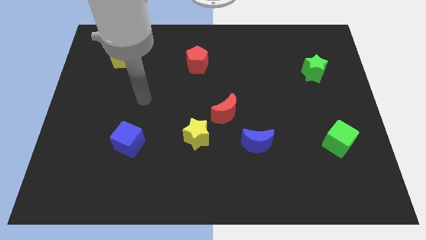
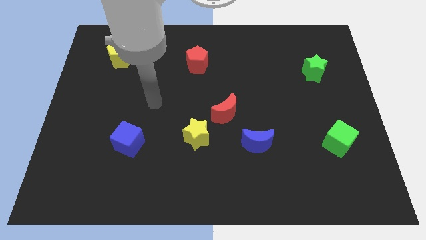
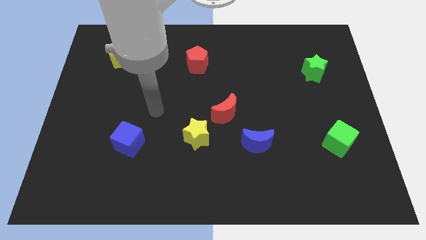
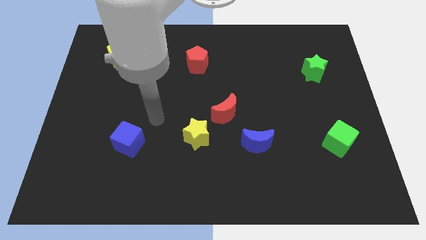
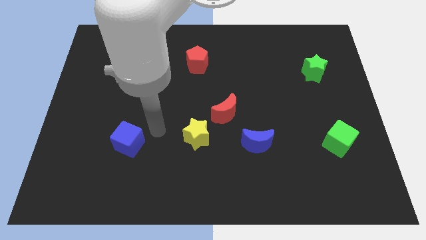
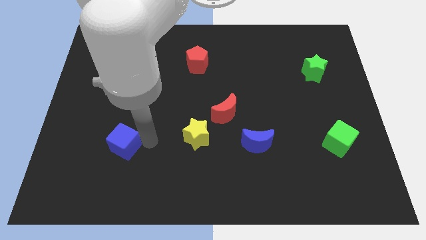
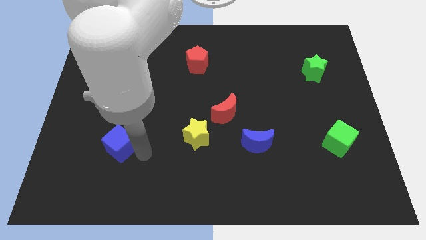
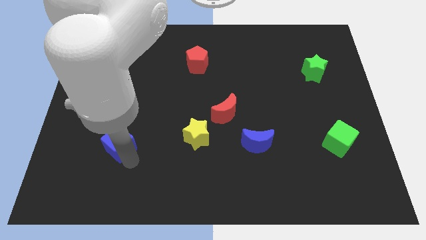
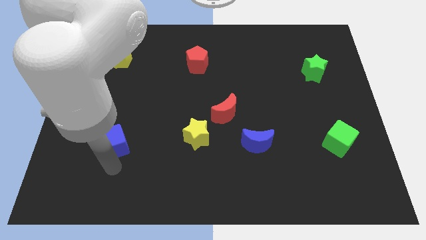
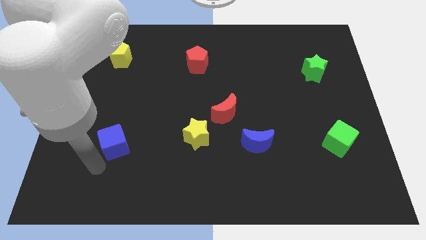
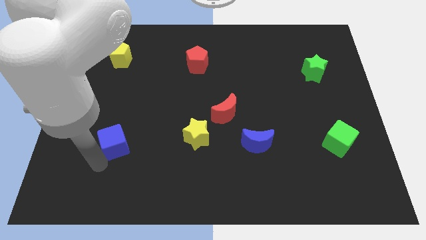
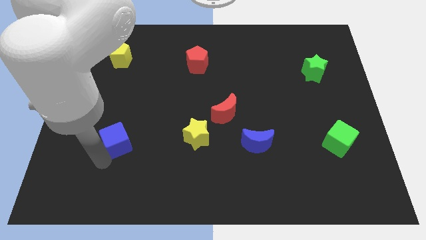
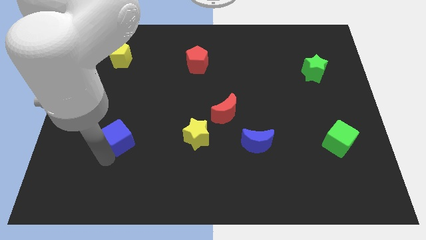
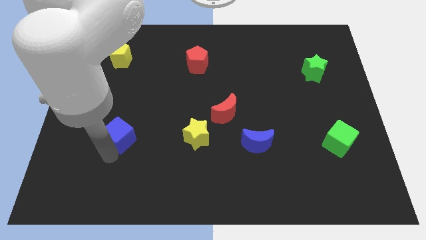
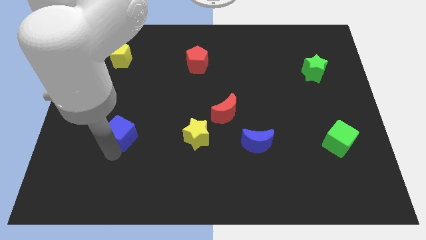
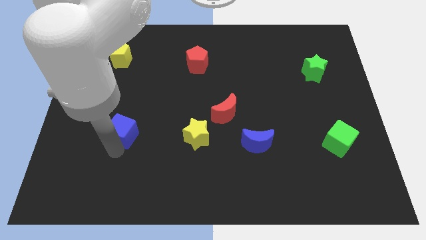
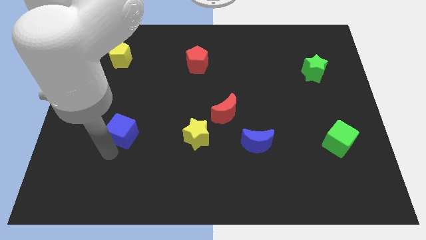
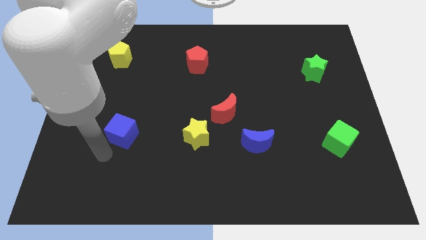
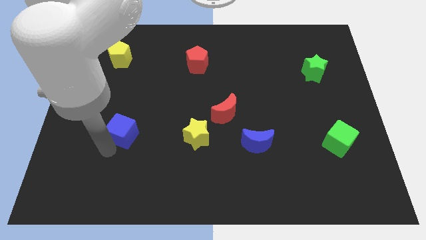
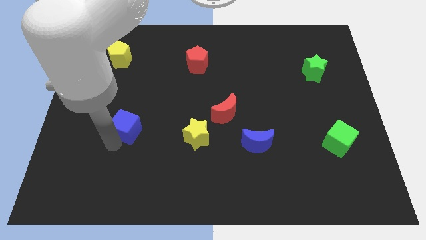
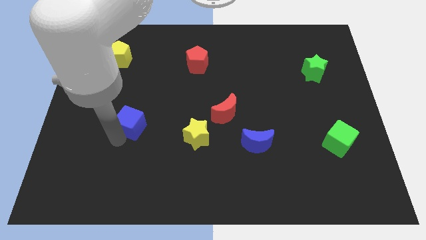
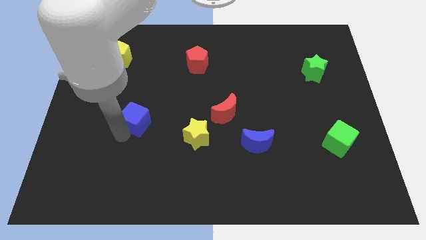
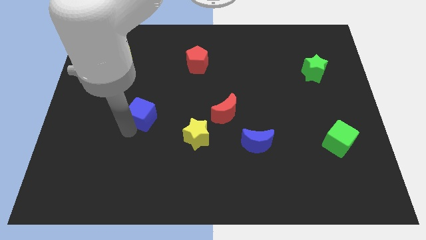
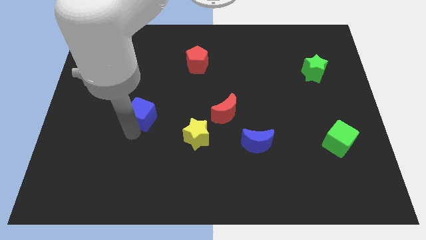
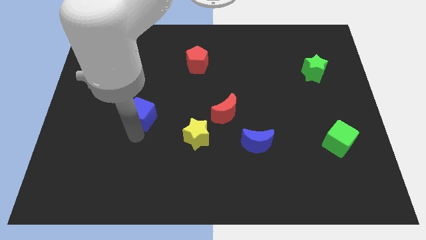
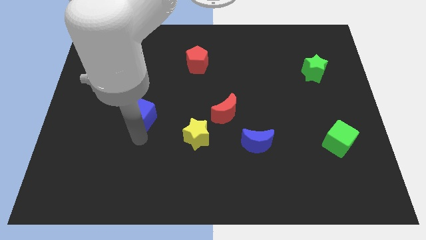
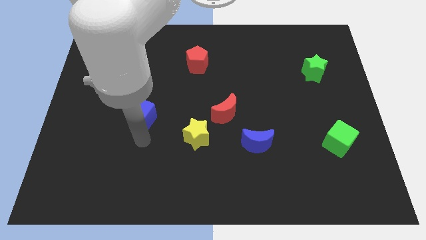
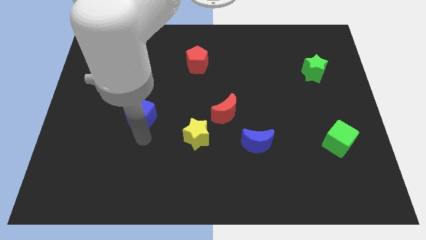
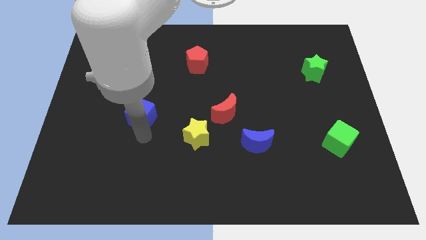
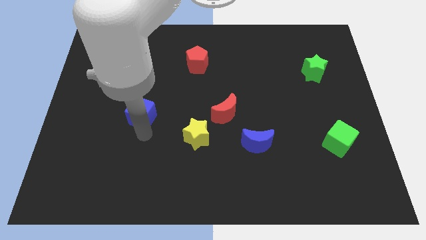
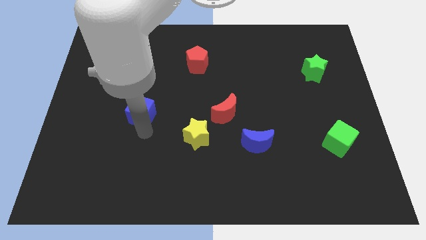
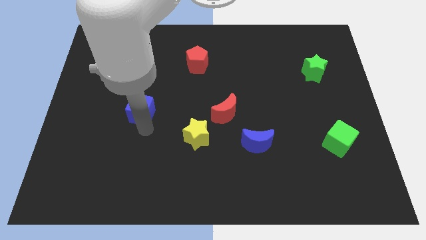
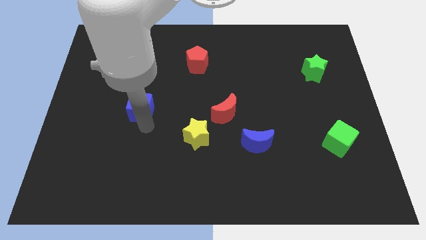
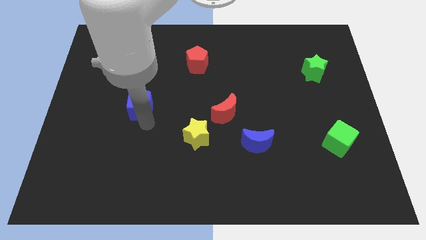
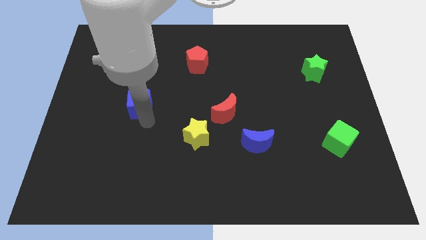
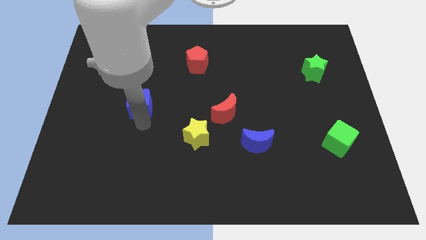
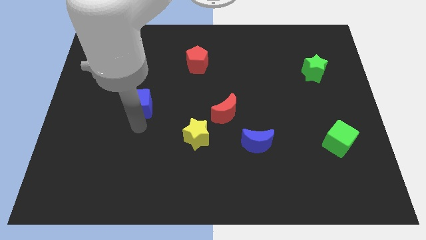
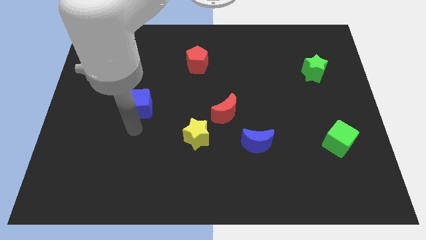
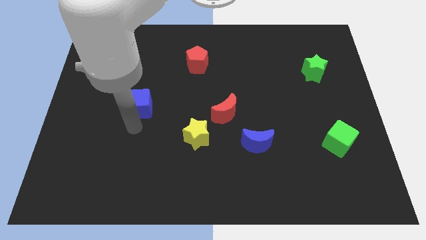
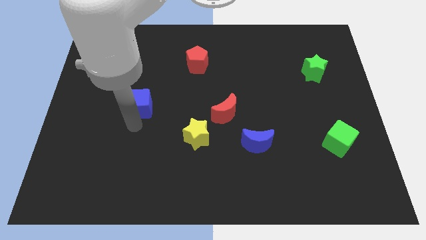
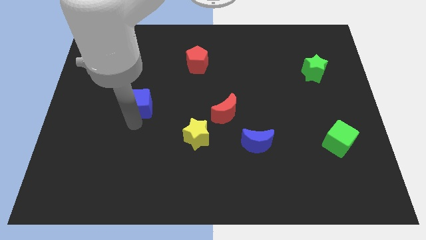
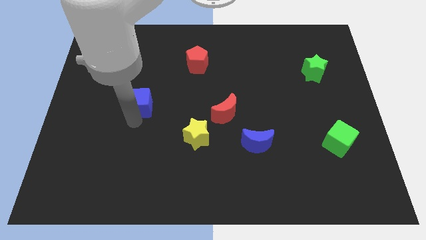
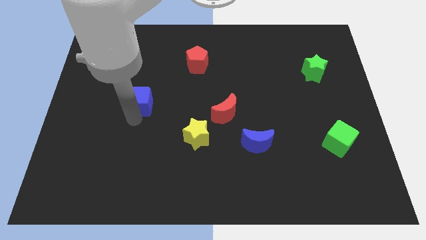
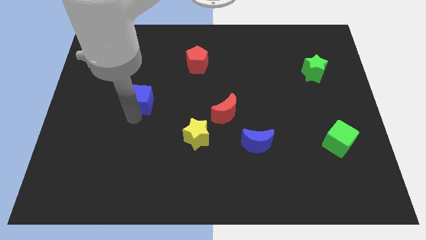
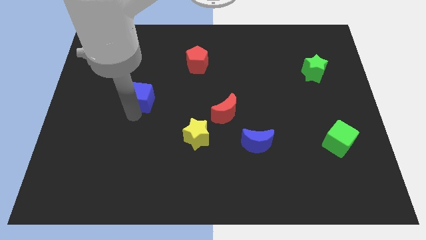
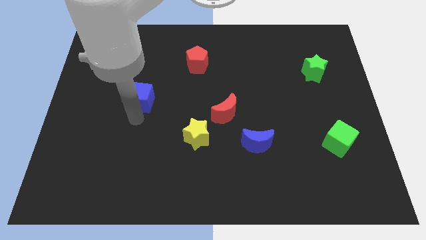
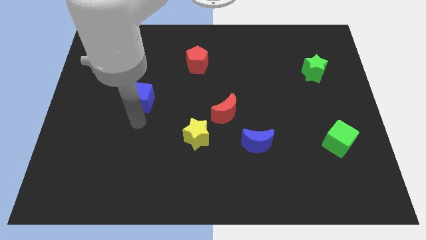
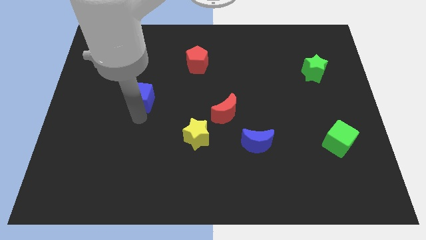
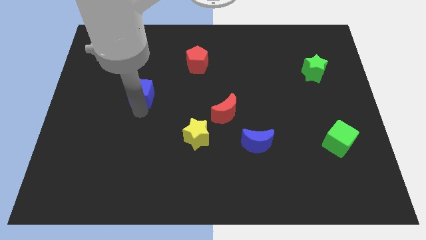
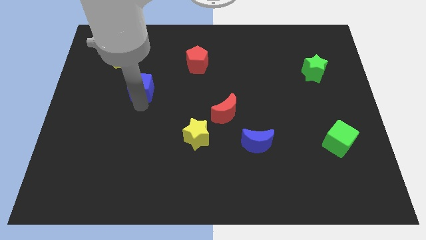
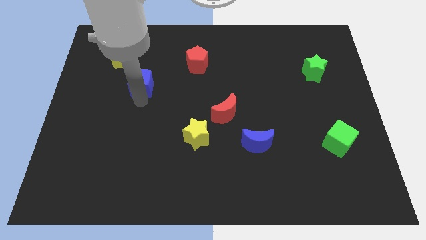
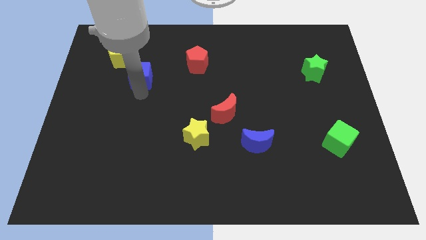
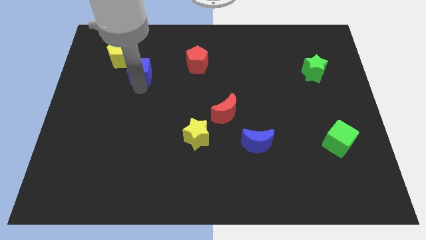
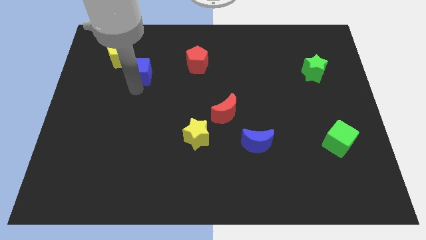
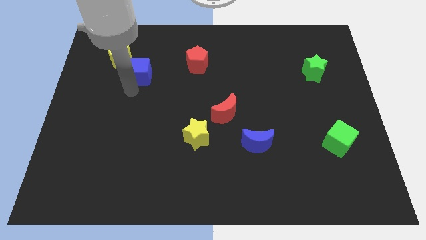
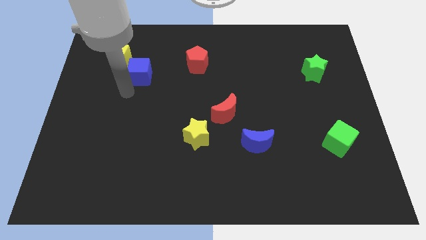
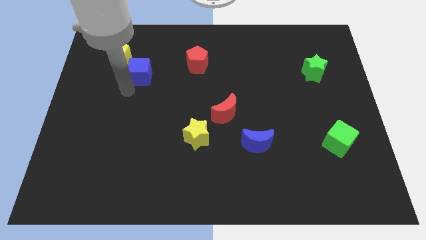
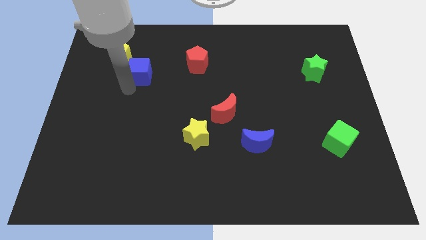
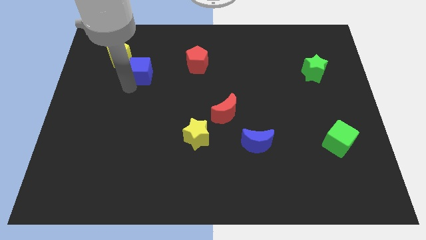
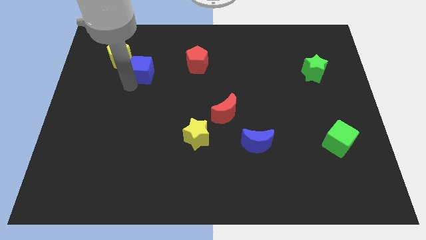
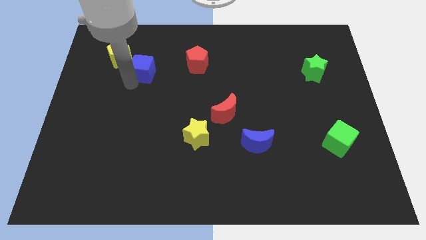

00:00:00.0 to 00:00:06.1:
put the blue cube just right of the yellow pentagon

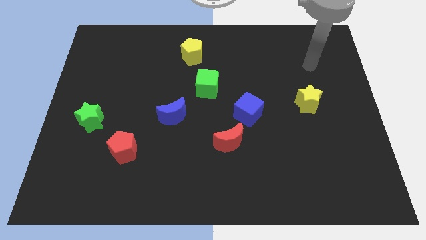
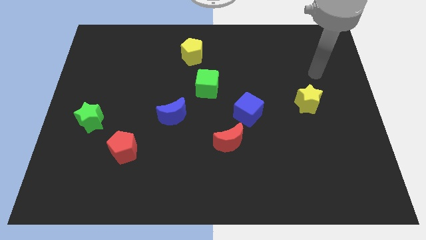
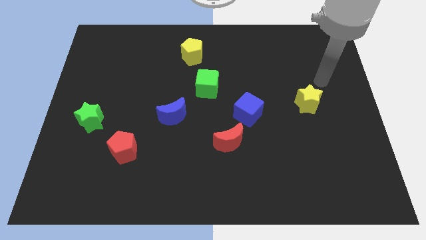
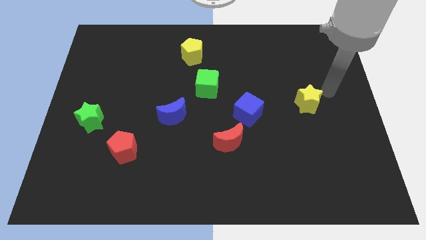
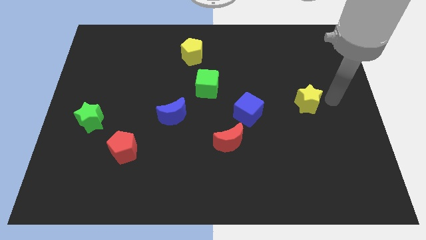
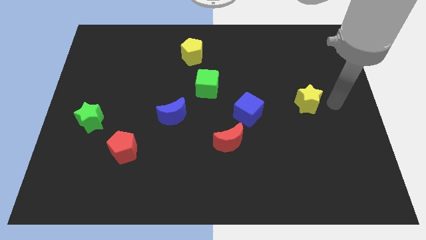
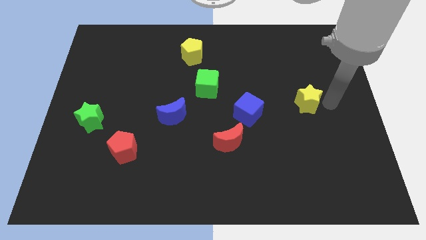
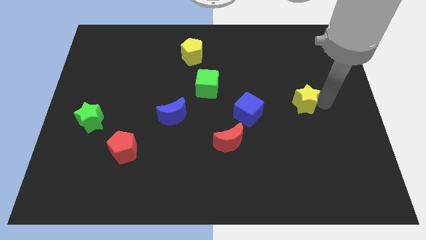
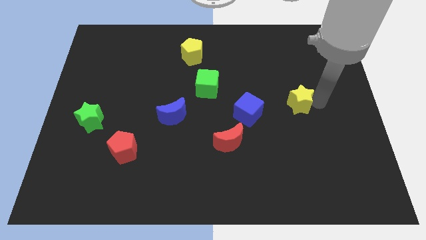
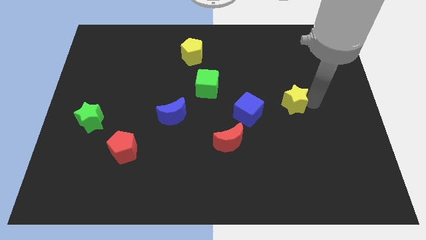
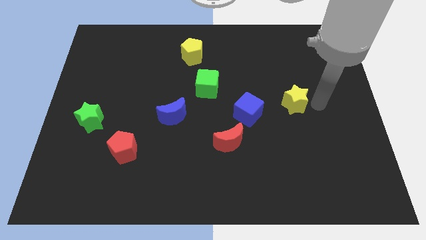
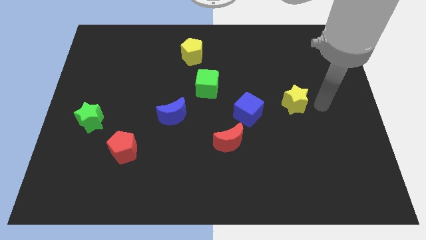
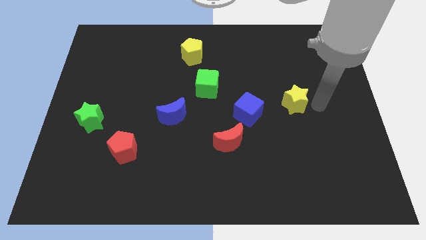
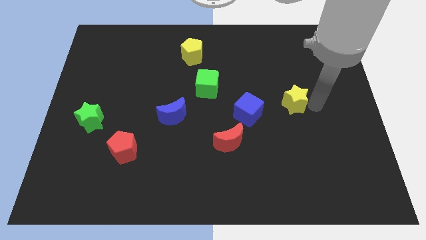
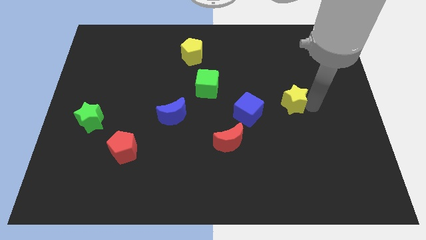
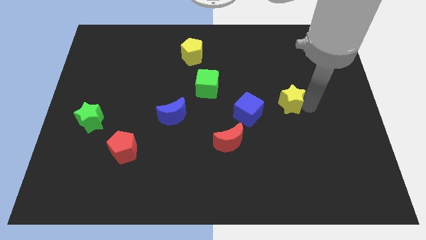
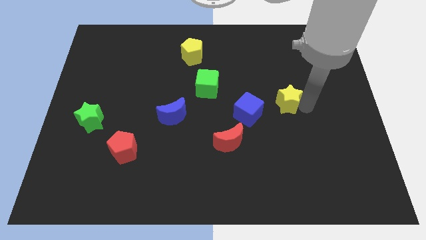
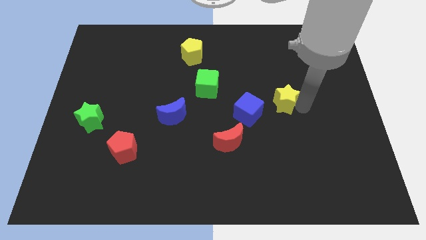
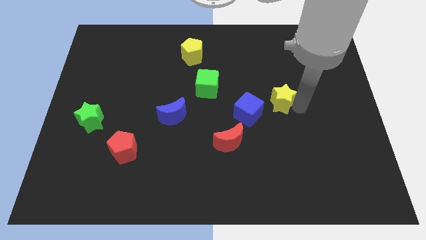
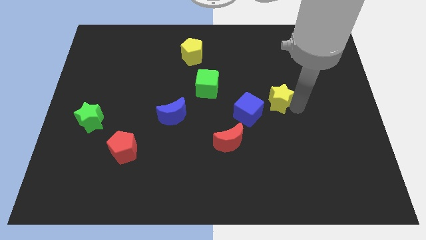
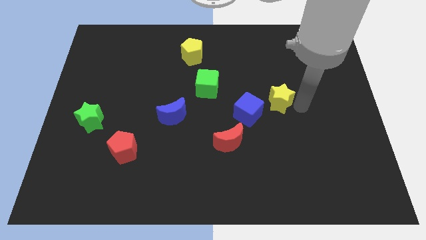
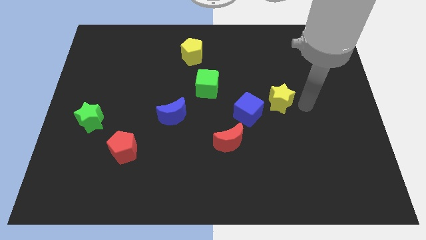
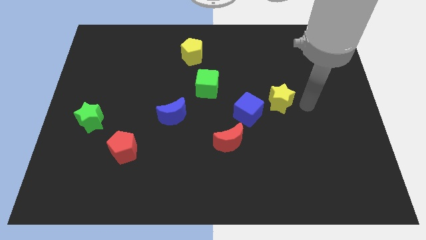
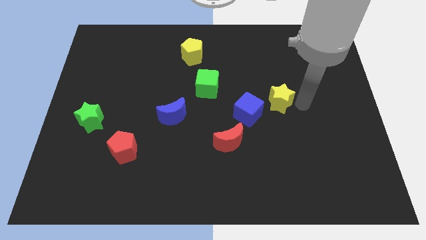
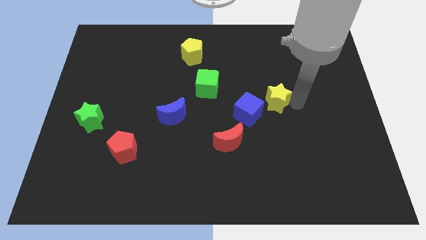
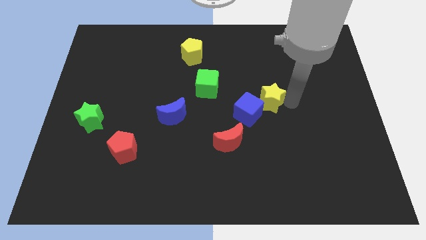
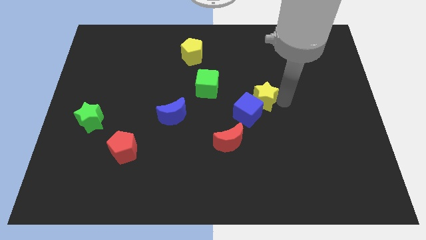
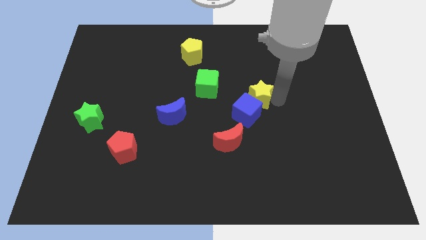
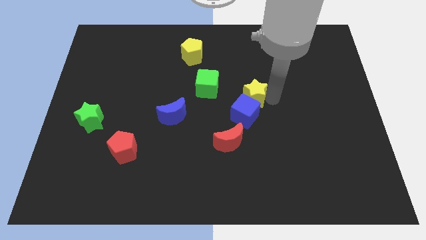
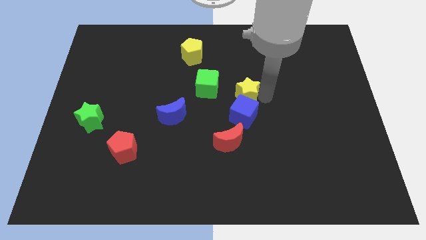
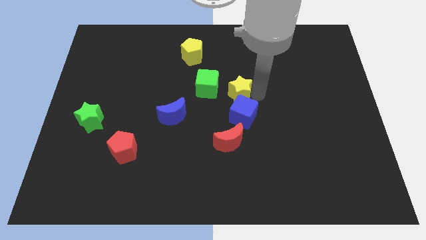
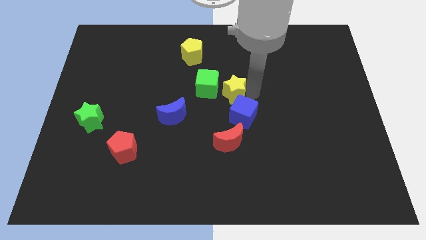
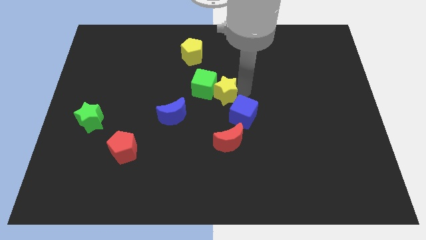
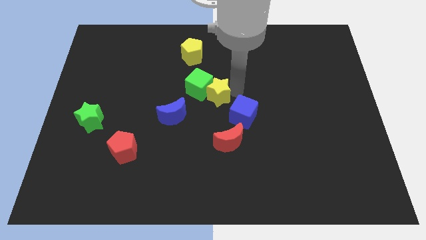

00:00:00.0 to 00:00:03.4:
push the yellow star to the top right side of the blue moon
